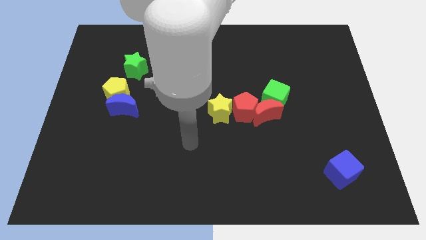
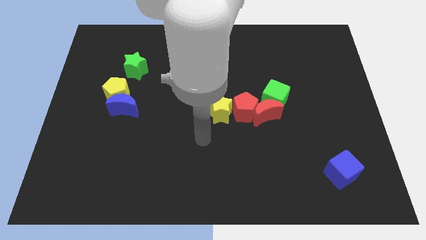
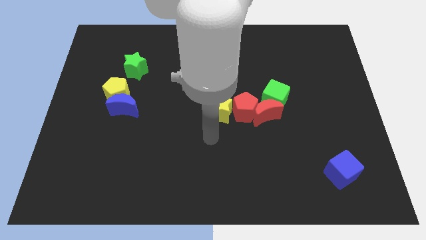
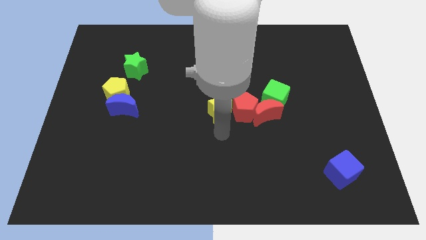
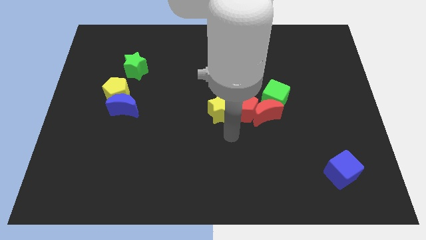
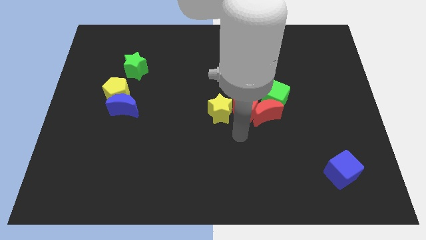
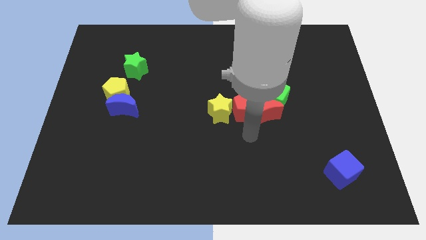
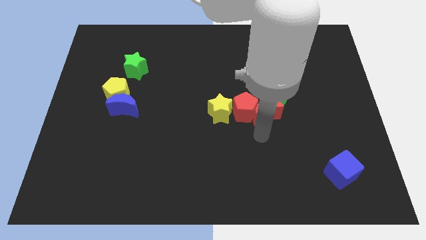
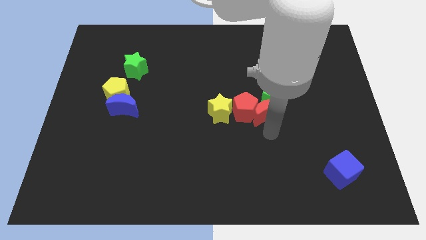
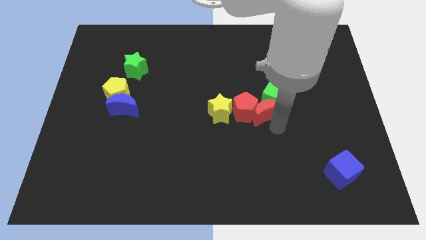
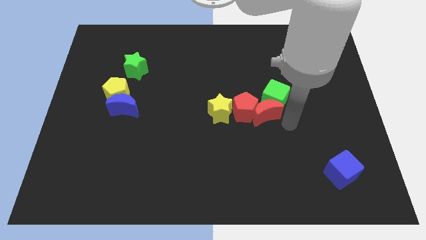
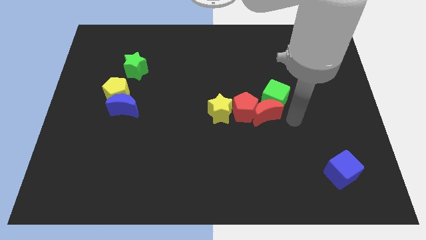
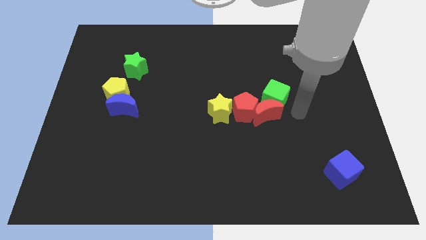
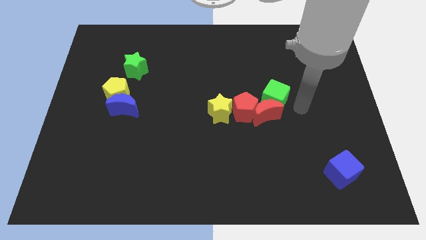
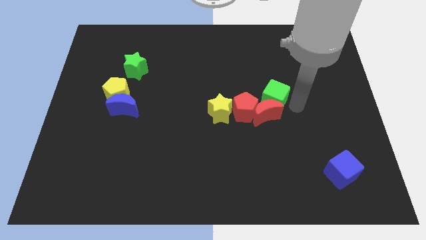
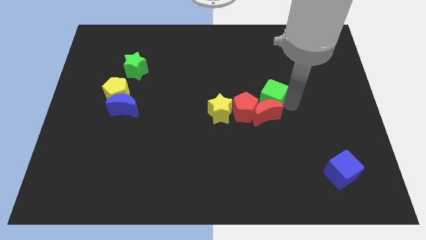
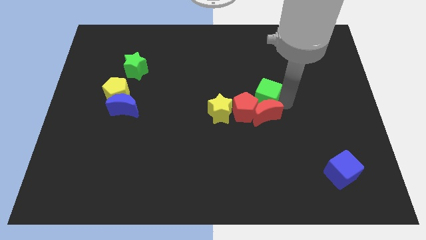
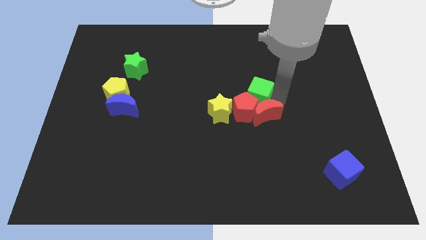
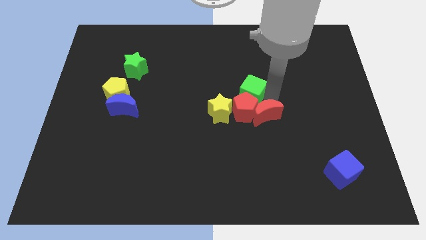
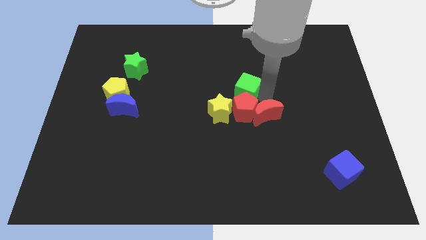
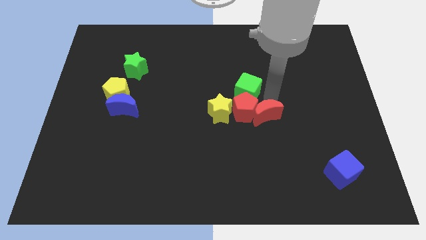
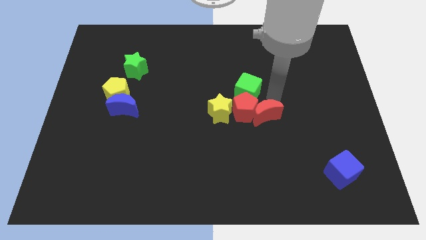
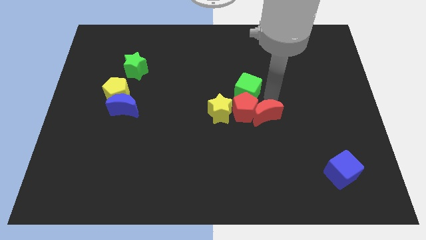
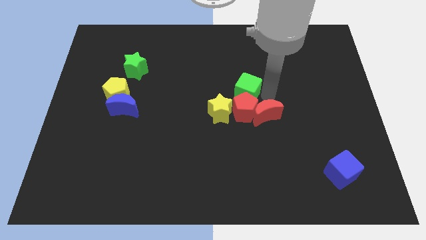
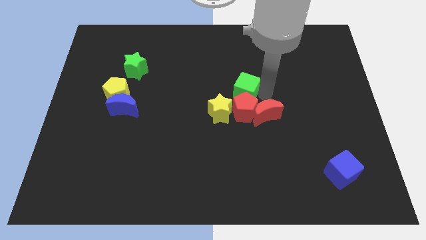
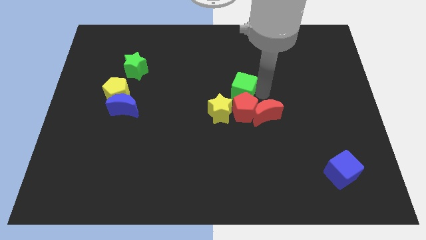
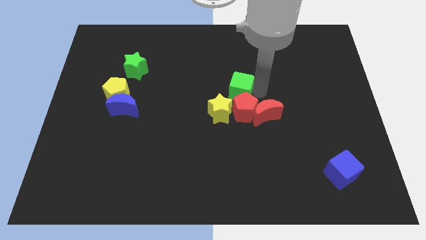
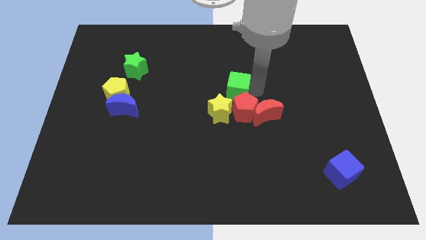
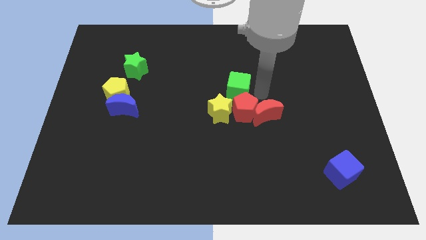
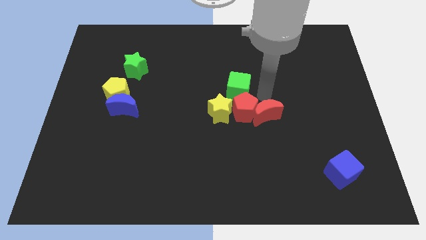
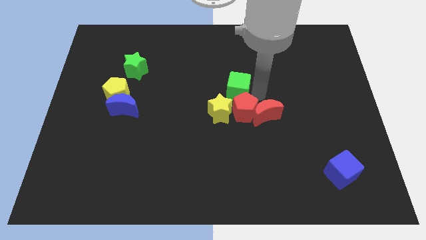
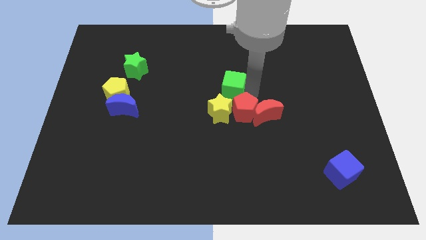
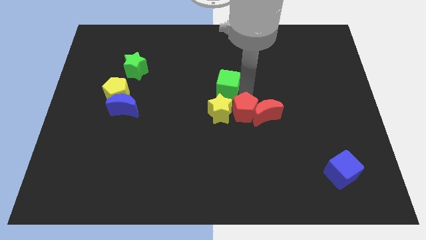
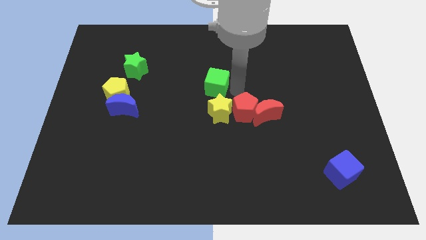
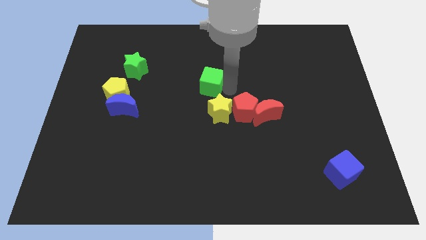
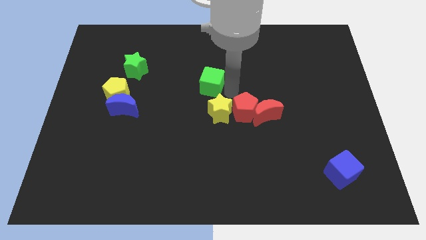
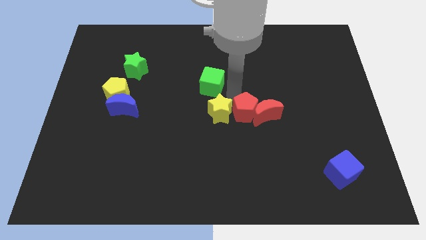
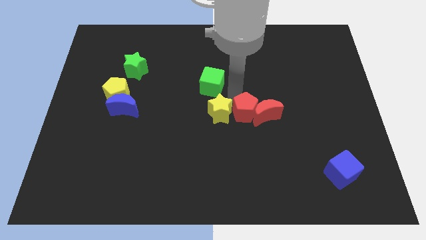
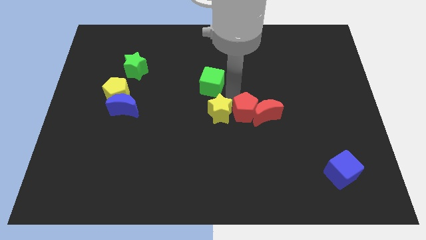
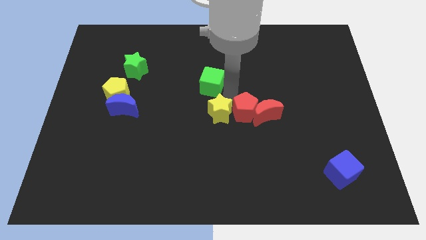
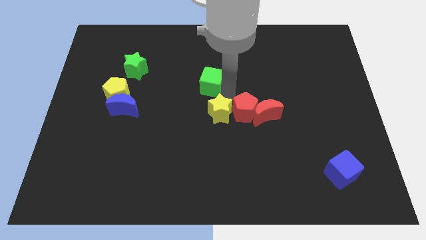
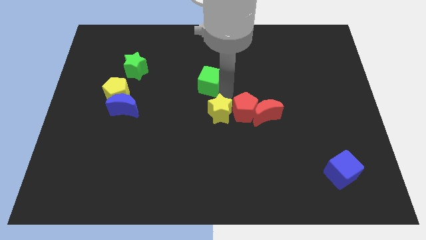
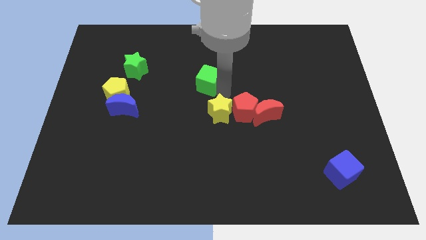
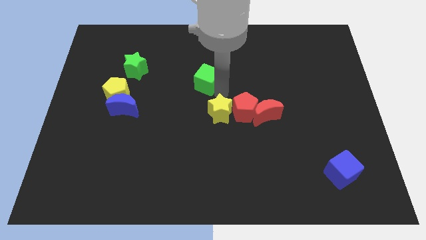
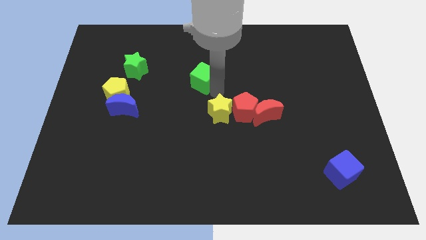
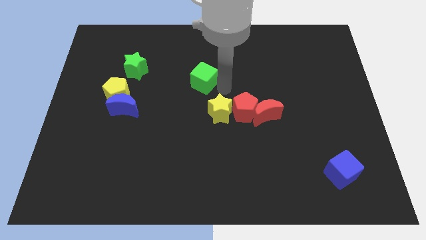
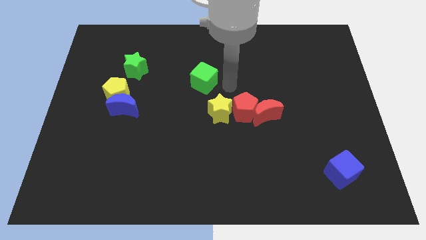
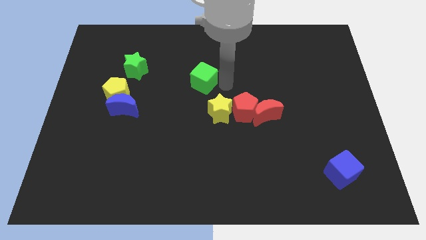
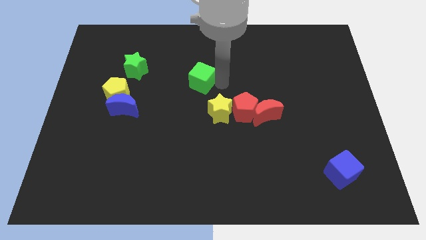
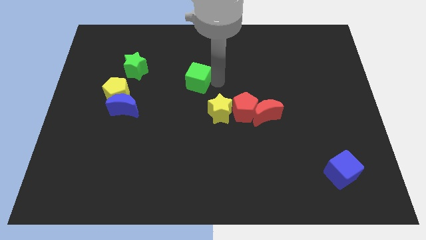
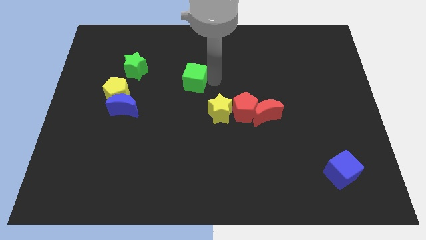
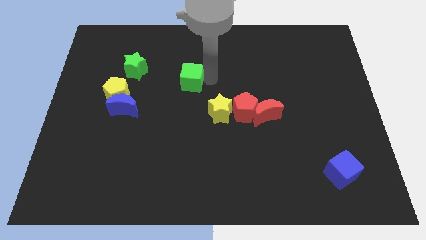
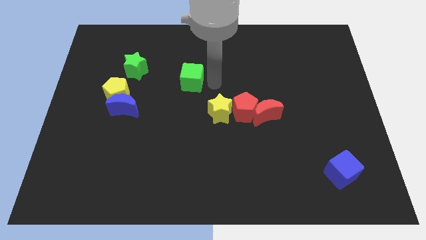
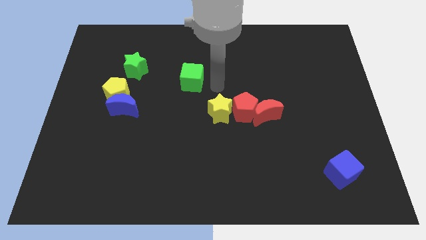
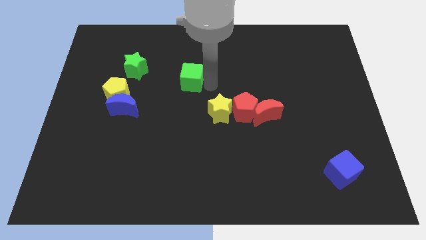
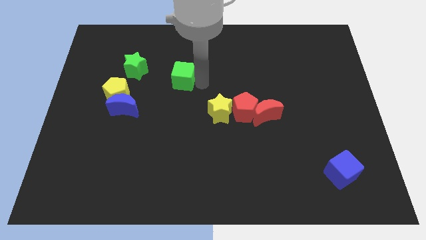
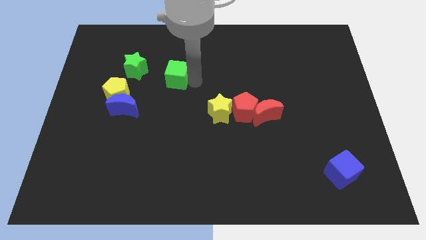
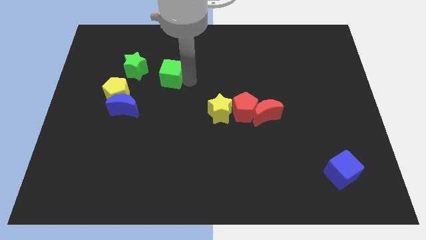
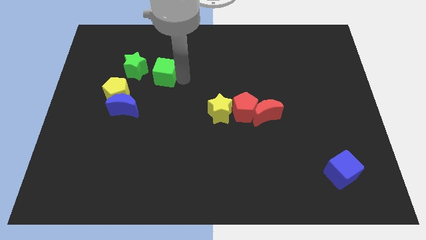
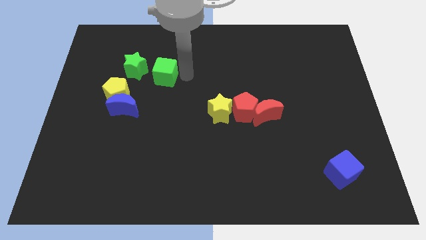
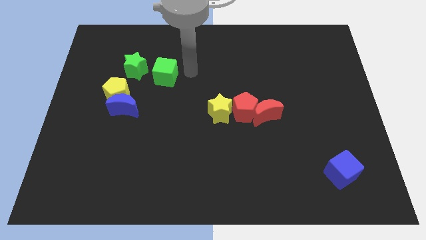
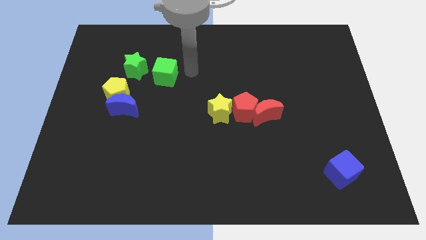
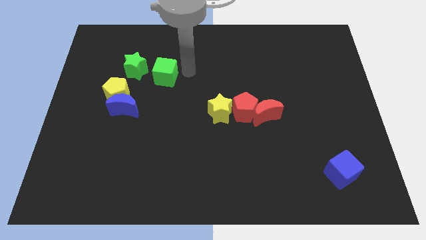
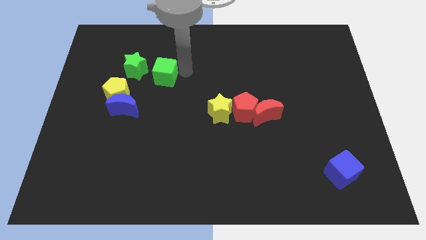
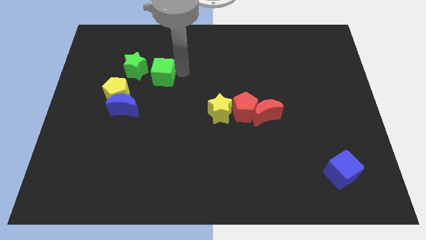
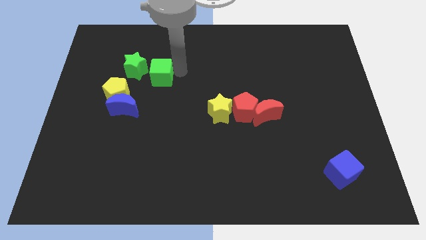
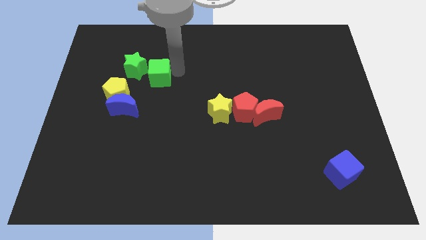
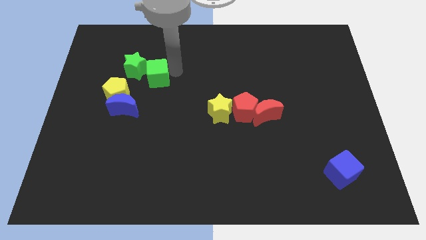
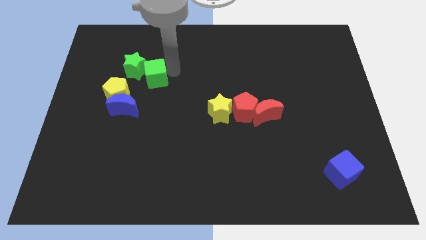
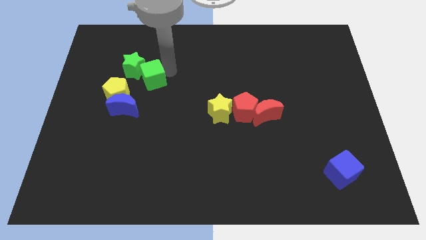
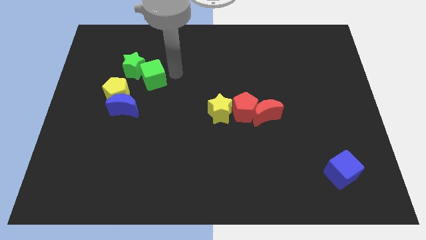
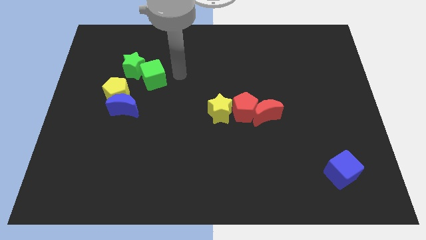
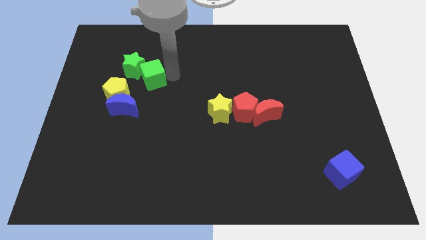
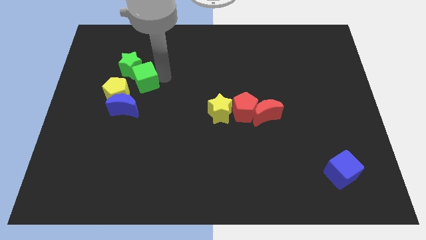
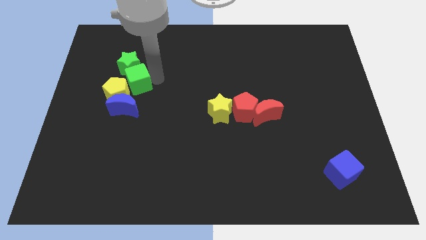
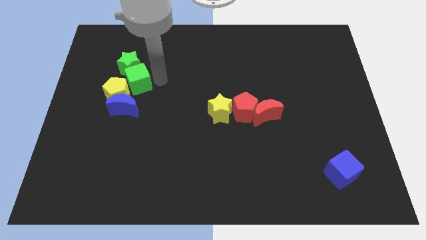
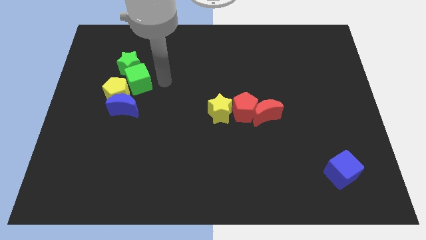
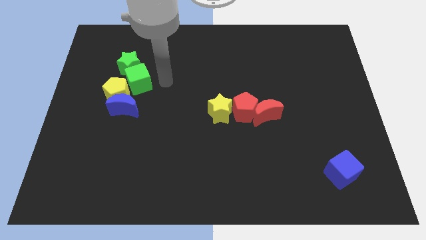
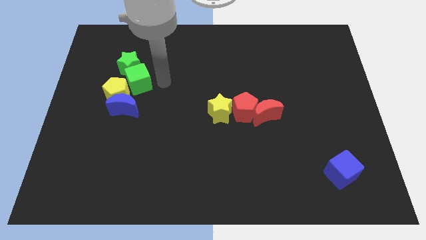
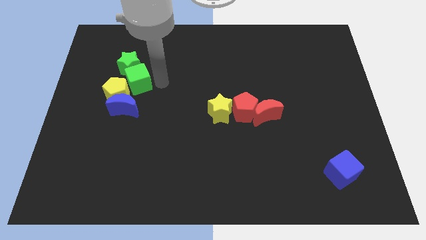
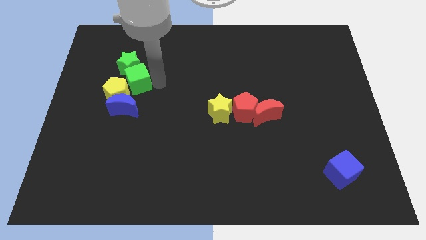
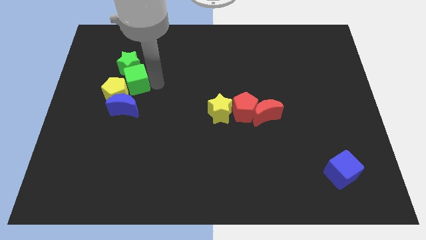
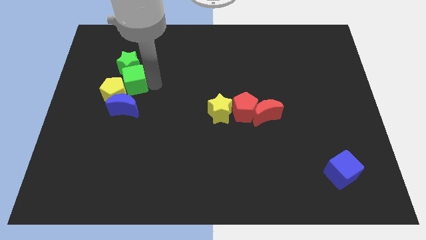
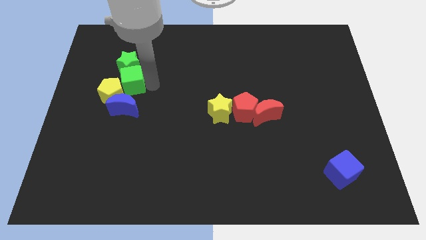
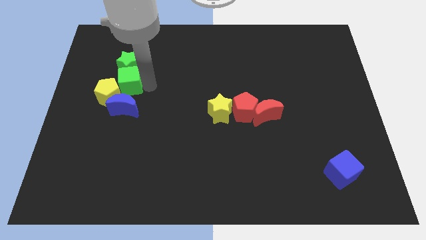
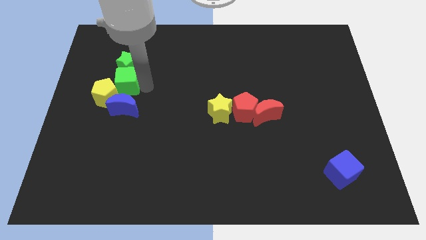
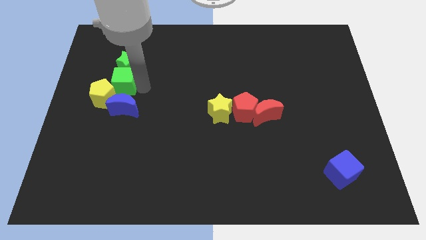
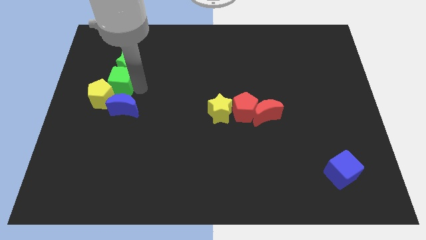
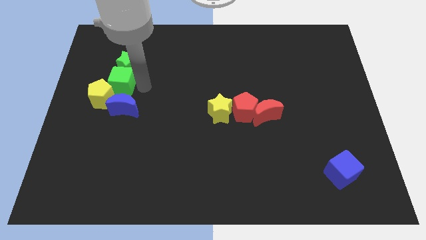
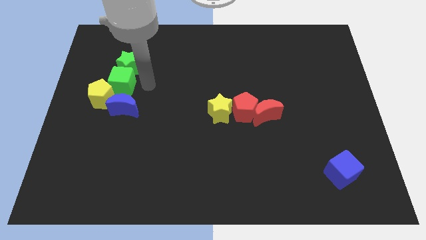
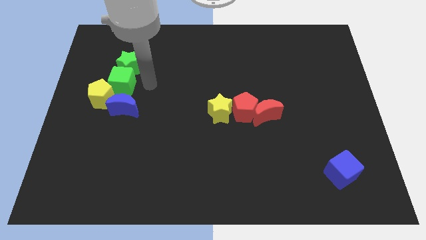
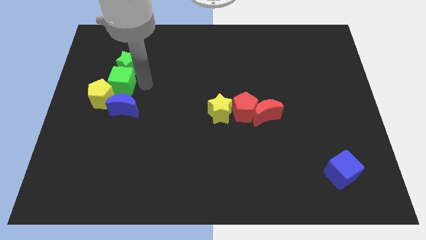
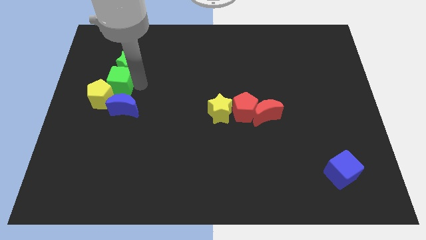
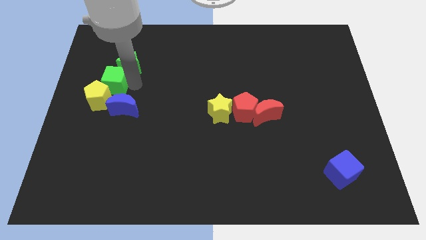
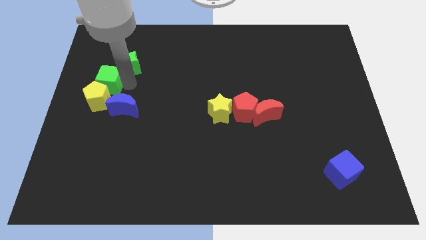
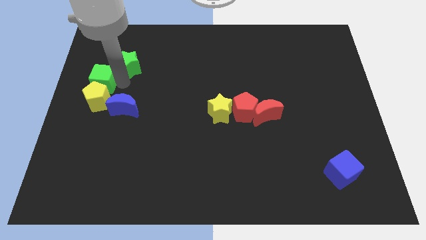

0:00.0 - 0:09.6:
push the green cube to the left side
